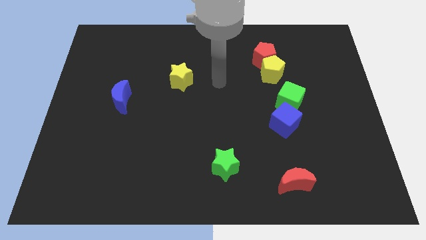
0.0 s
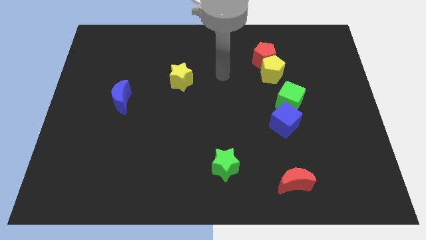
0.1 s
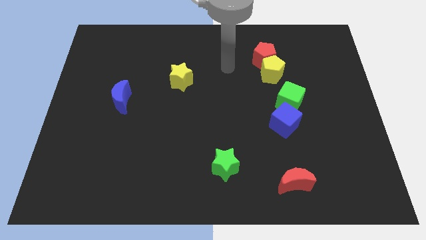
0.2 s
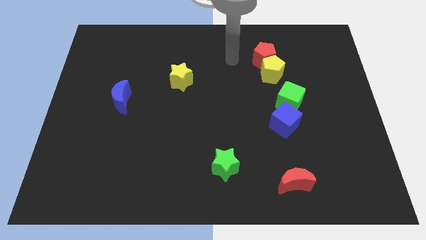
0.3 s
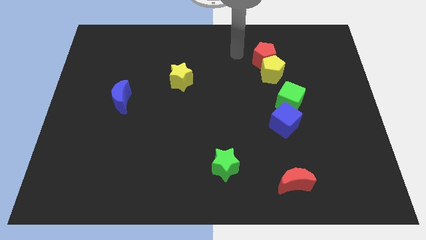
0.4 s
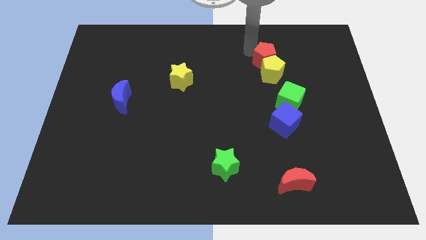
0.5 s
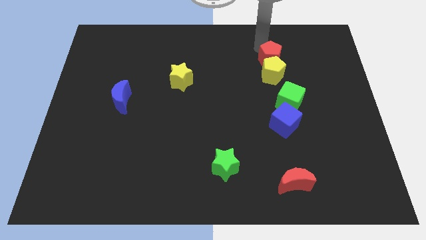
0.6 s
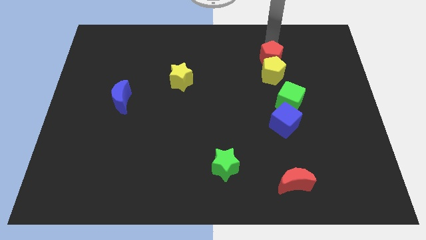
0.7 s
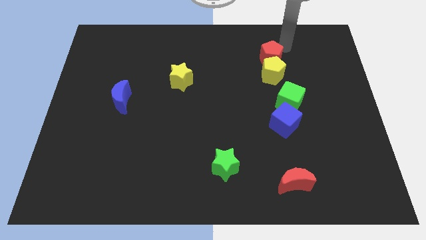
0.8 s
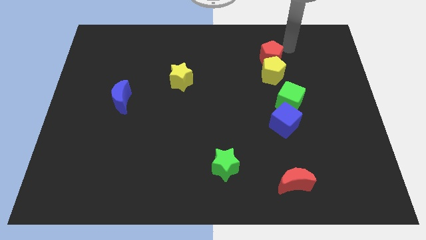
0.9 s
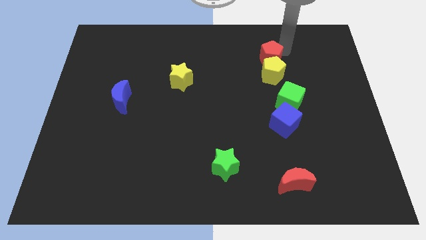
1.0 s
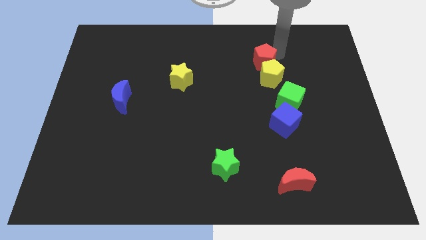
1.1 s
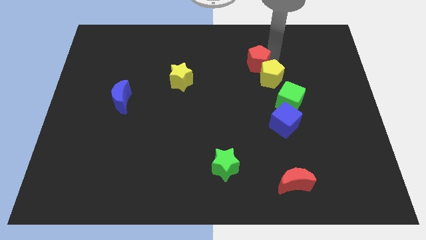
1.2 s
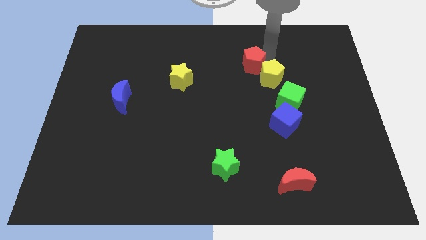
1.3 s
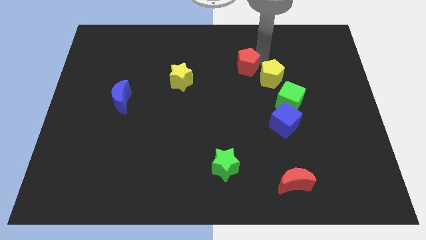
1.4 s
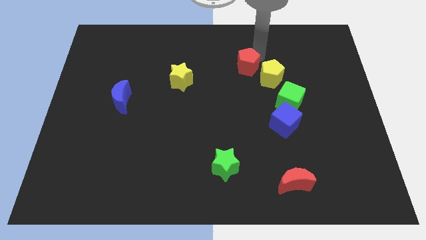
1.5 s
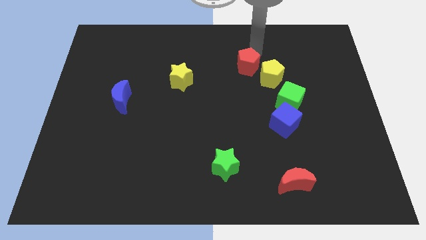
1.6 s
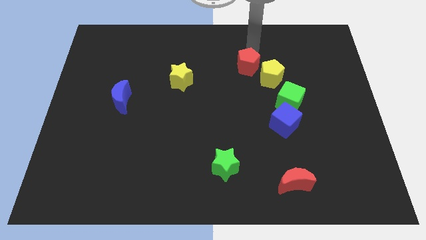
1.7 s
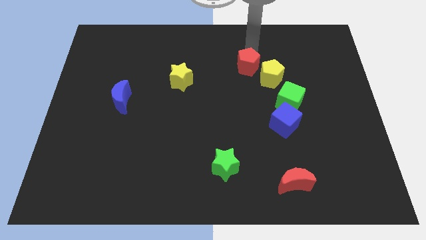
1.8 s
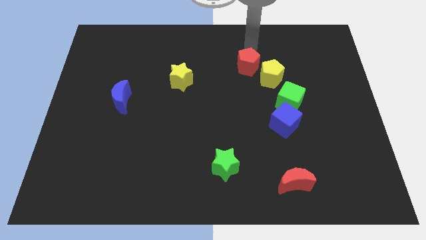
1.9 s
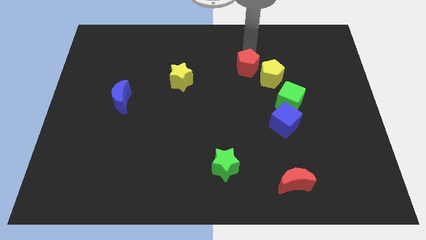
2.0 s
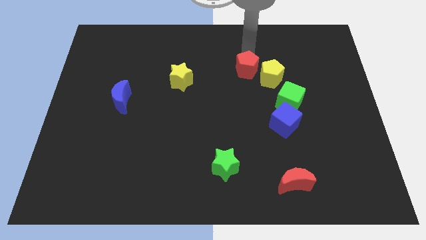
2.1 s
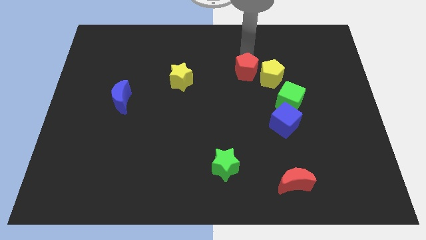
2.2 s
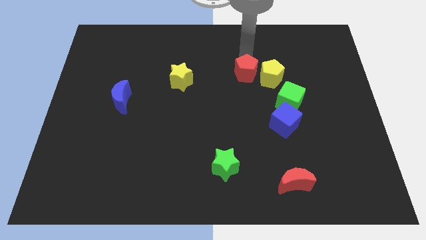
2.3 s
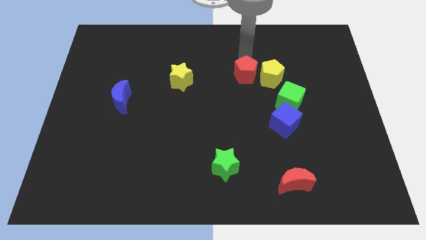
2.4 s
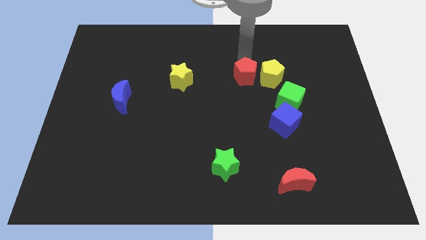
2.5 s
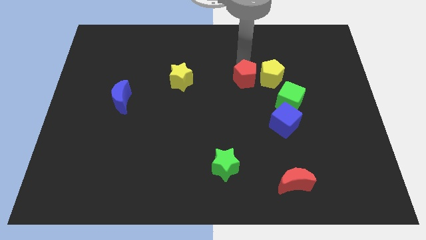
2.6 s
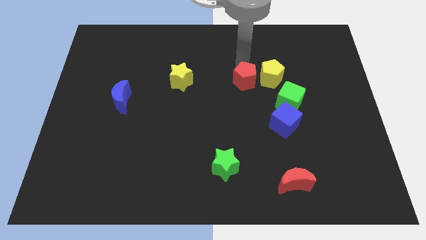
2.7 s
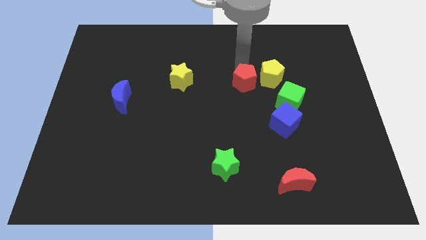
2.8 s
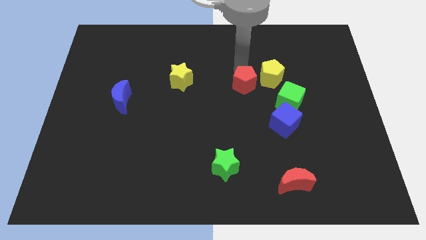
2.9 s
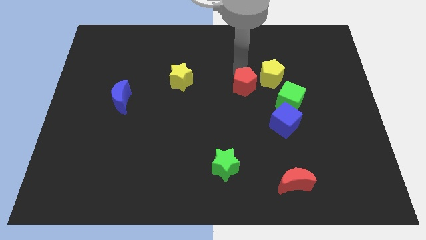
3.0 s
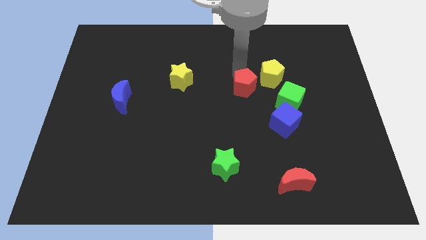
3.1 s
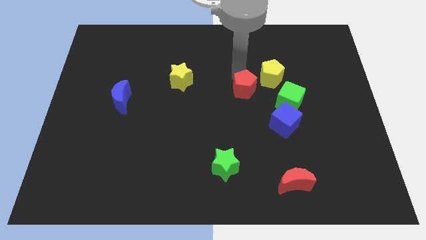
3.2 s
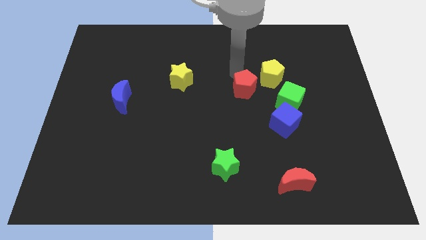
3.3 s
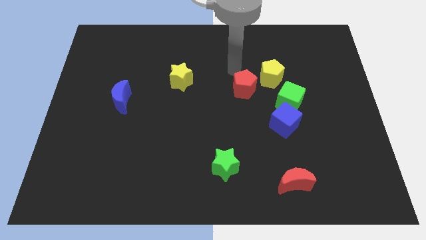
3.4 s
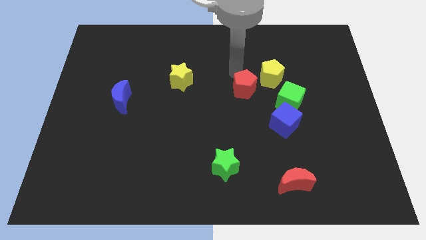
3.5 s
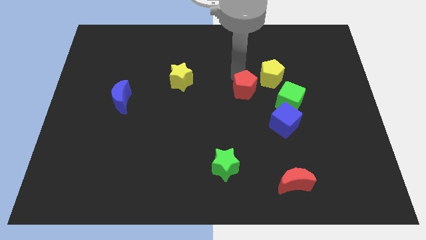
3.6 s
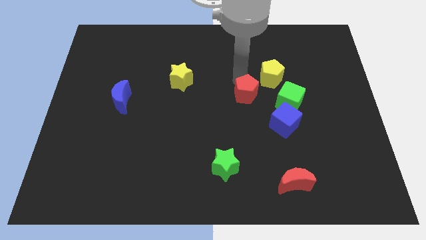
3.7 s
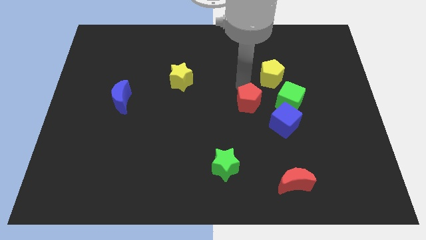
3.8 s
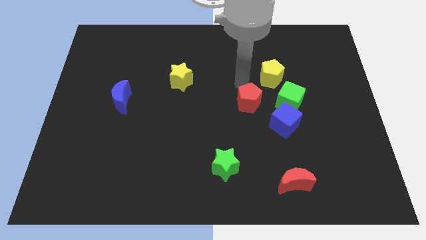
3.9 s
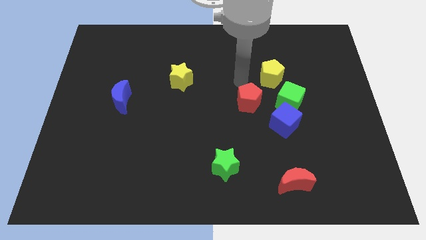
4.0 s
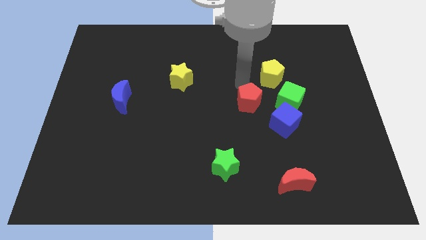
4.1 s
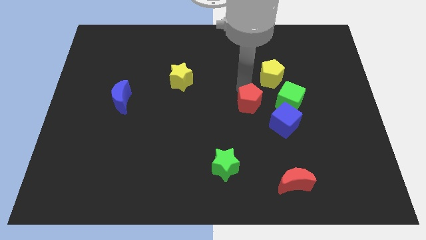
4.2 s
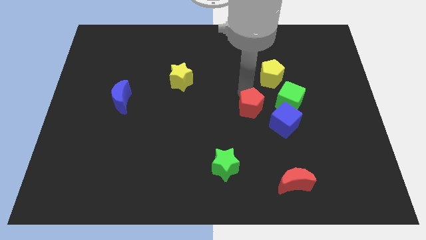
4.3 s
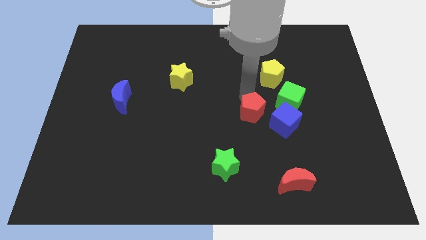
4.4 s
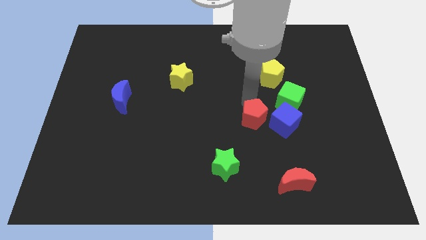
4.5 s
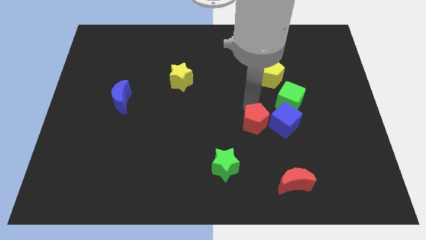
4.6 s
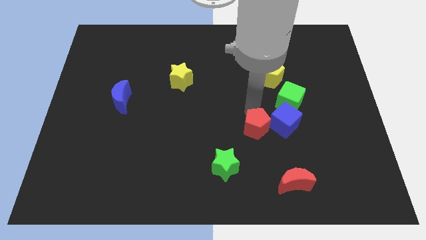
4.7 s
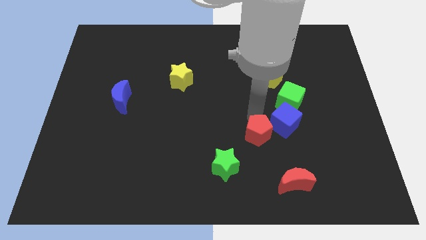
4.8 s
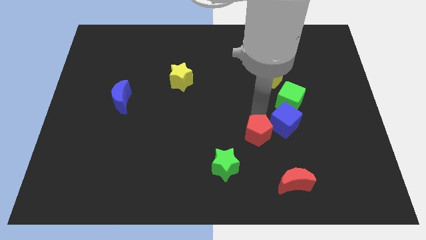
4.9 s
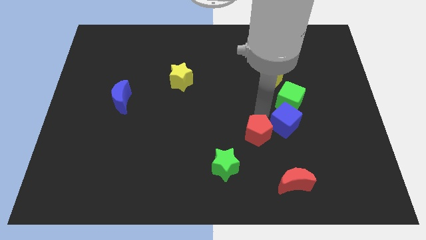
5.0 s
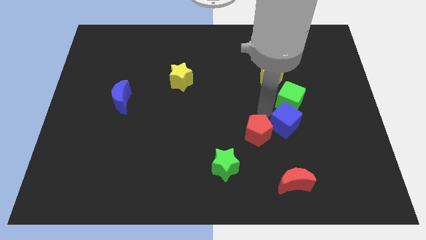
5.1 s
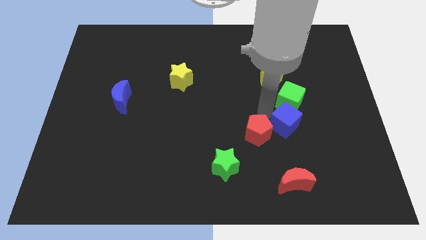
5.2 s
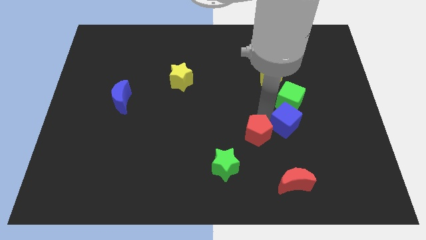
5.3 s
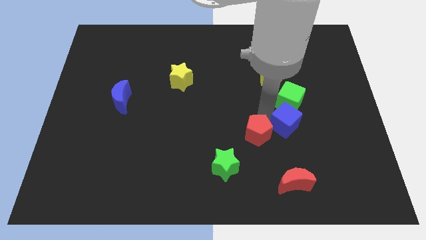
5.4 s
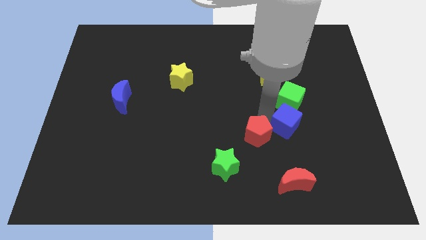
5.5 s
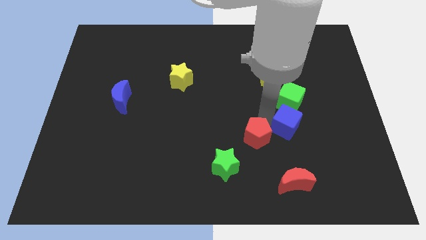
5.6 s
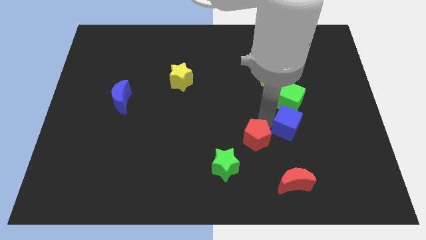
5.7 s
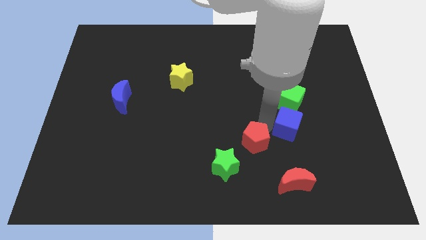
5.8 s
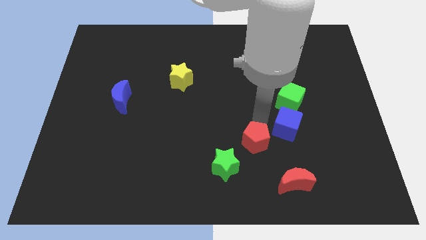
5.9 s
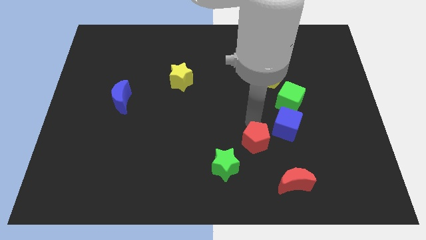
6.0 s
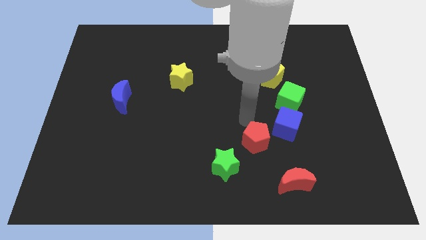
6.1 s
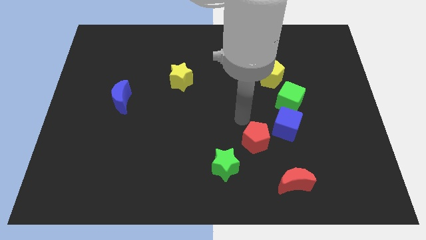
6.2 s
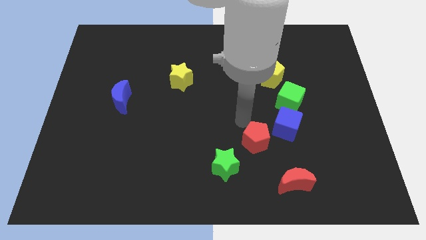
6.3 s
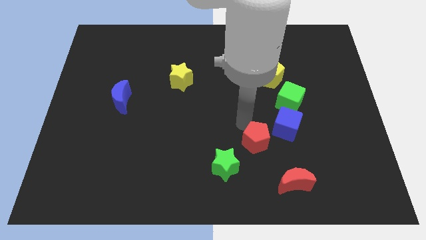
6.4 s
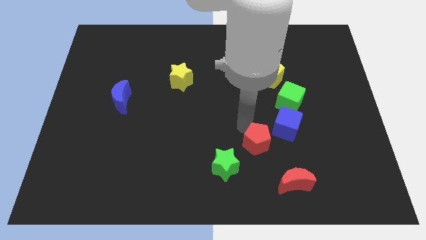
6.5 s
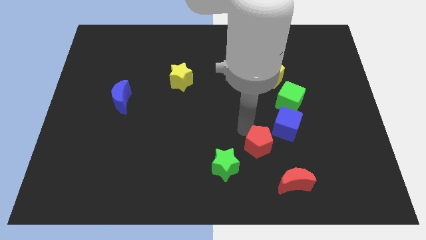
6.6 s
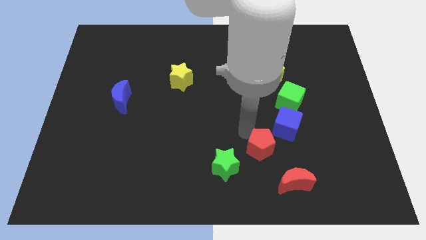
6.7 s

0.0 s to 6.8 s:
slide the red pentagon right of the green star
